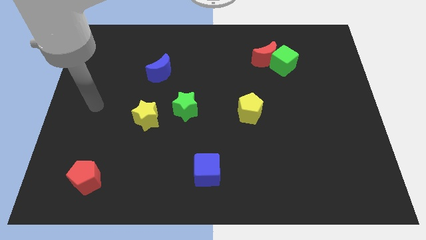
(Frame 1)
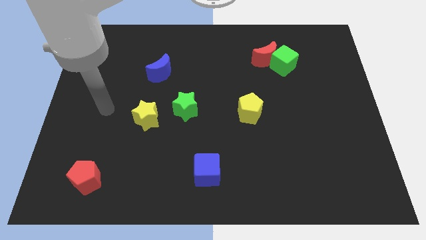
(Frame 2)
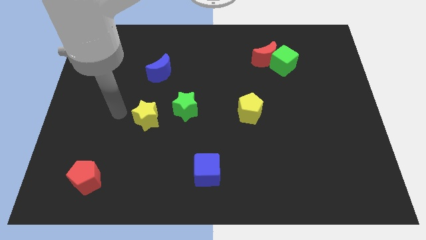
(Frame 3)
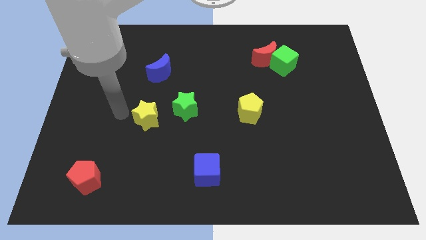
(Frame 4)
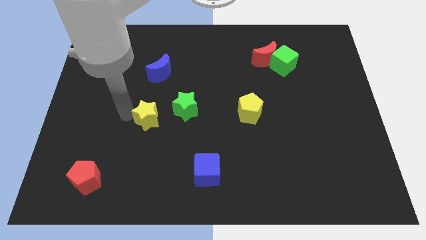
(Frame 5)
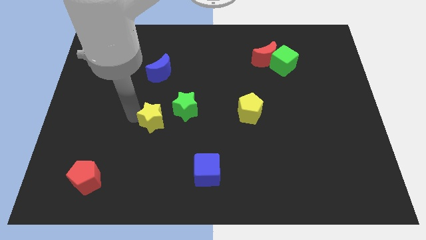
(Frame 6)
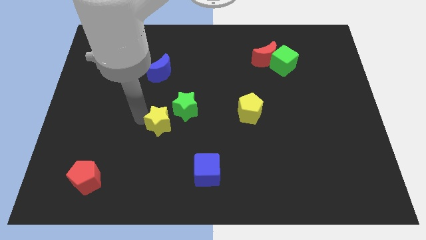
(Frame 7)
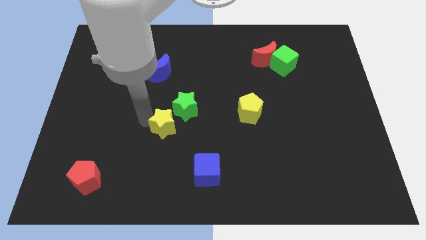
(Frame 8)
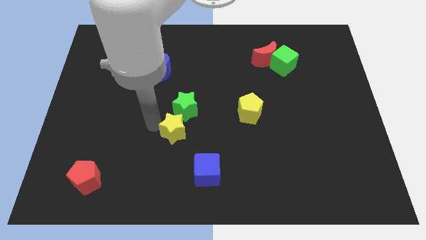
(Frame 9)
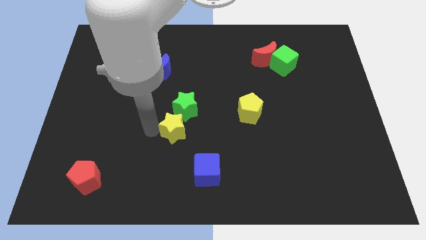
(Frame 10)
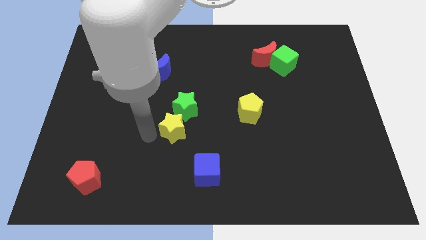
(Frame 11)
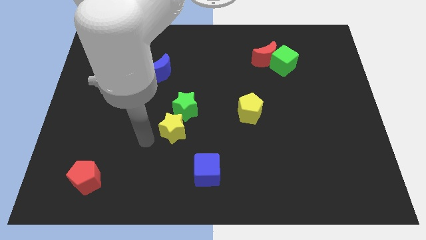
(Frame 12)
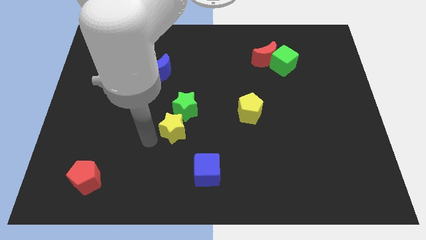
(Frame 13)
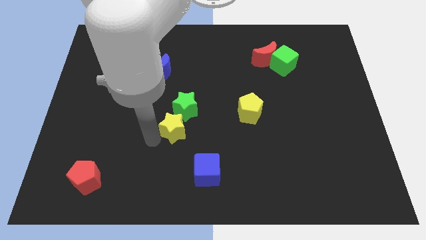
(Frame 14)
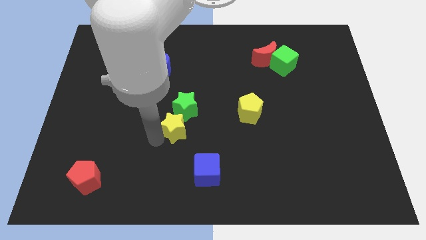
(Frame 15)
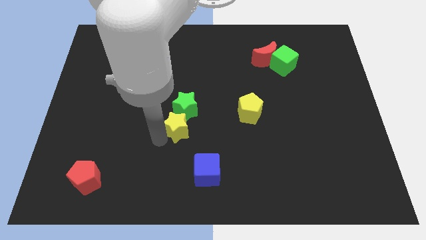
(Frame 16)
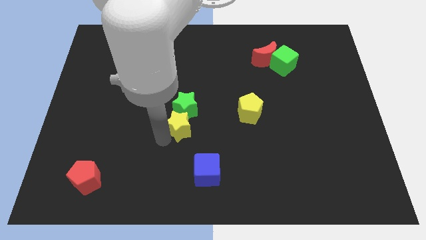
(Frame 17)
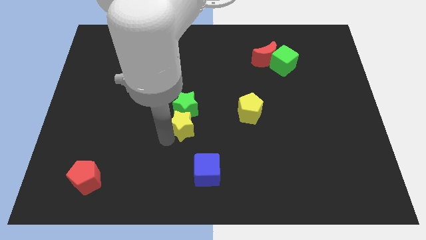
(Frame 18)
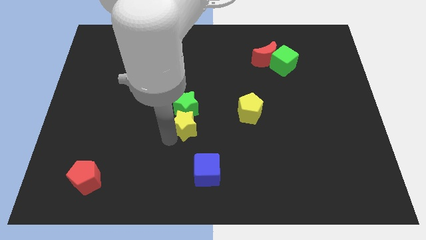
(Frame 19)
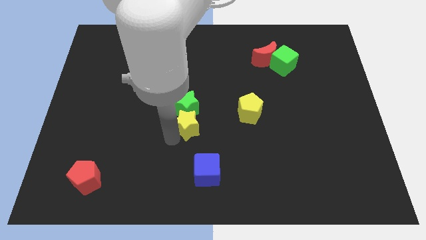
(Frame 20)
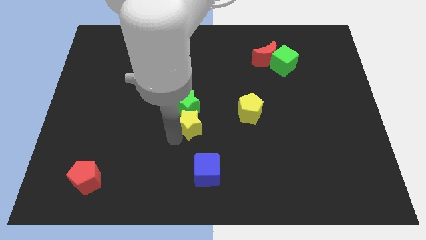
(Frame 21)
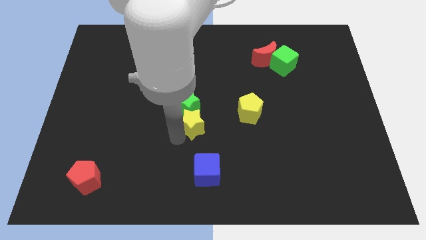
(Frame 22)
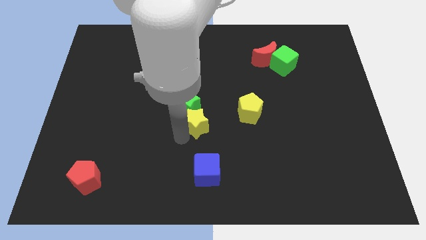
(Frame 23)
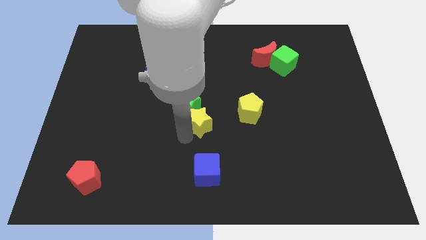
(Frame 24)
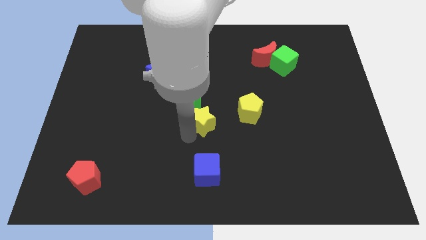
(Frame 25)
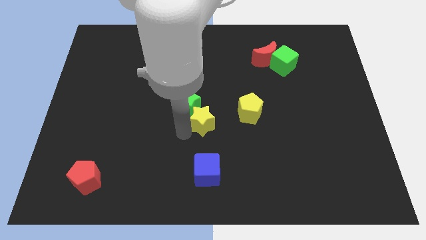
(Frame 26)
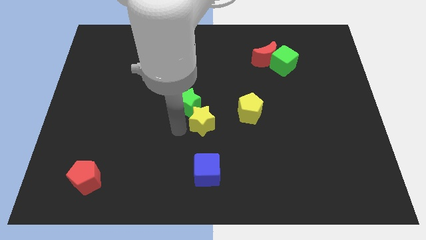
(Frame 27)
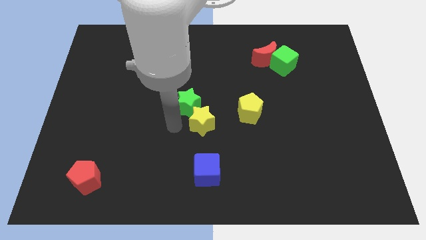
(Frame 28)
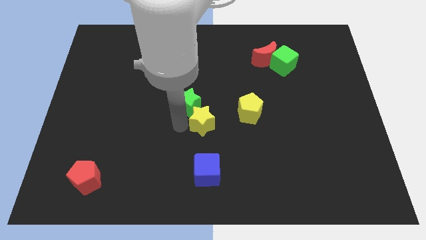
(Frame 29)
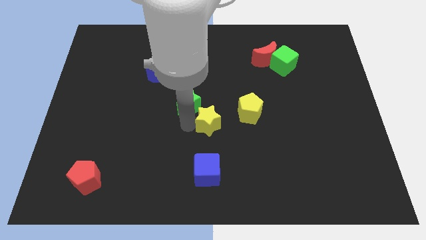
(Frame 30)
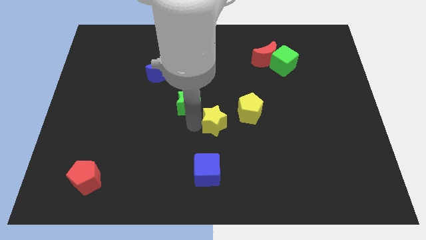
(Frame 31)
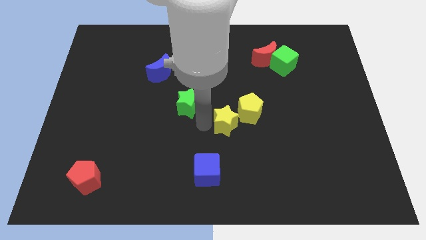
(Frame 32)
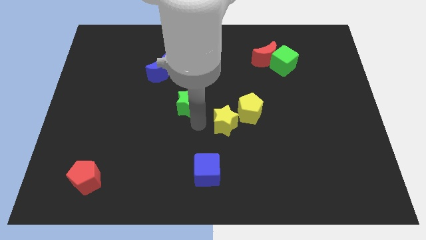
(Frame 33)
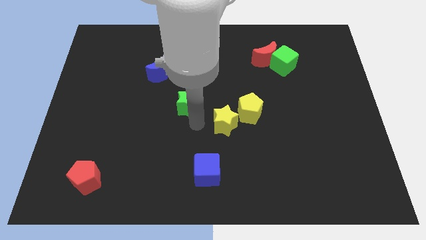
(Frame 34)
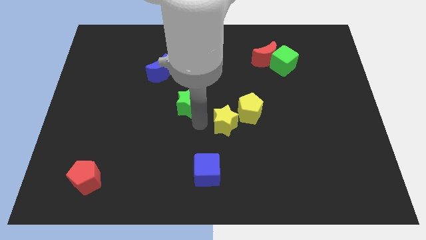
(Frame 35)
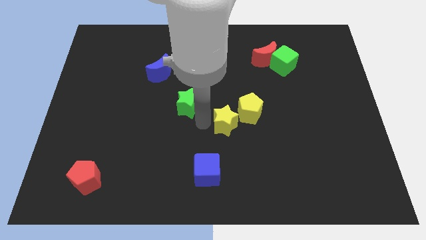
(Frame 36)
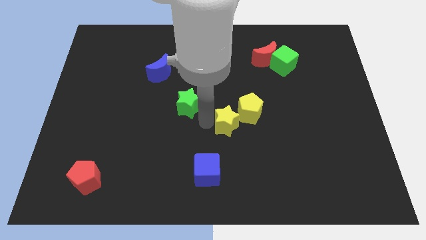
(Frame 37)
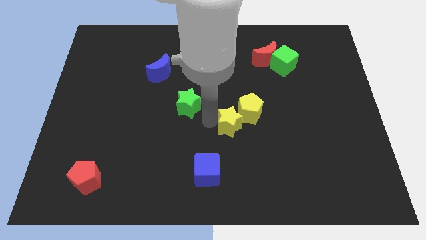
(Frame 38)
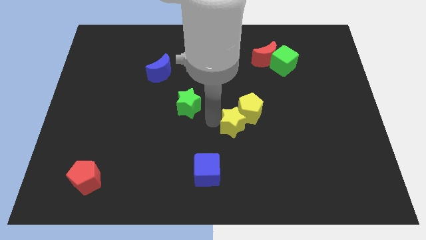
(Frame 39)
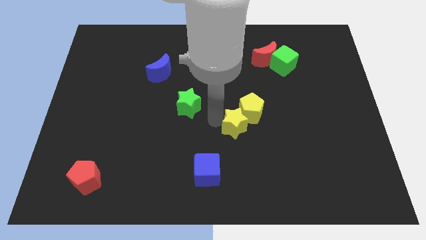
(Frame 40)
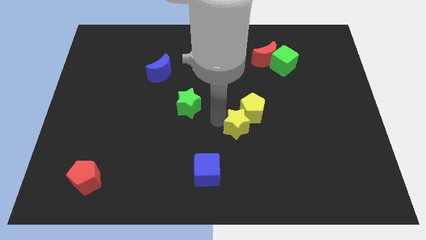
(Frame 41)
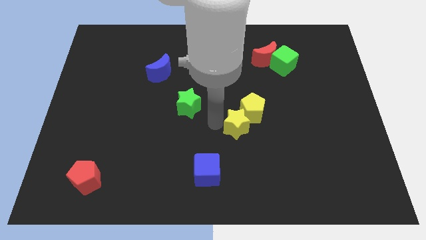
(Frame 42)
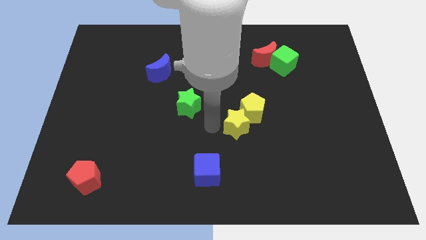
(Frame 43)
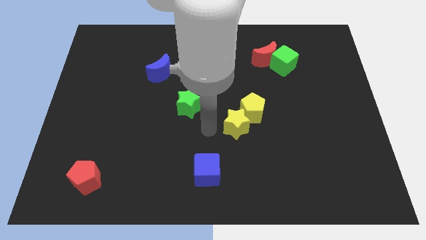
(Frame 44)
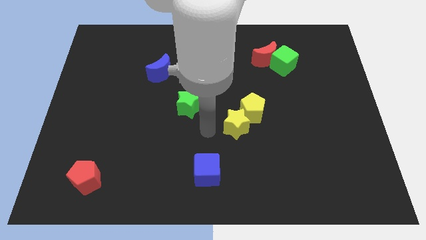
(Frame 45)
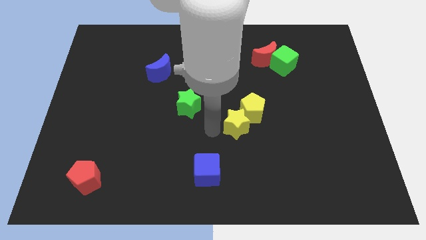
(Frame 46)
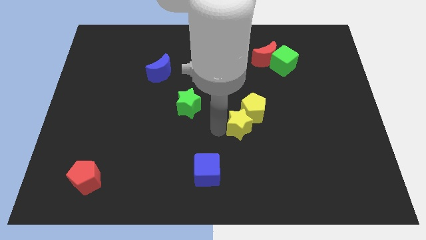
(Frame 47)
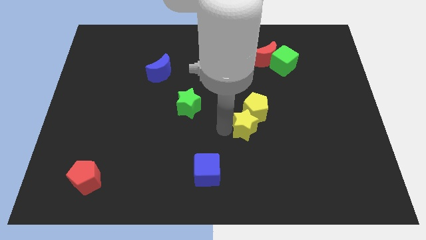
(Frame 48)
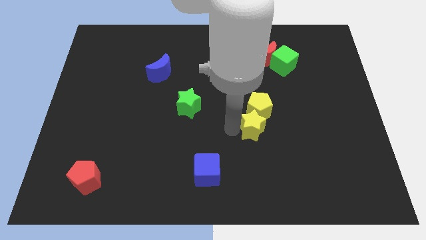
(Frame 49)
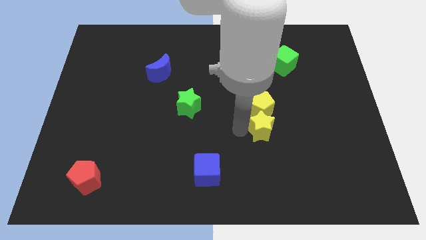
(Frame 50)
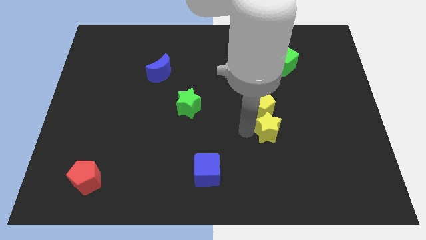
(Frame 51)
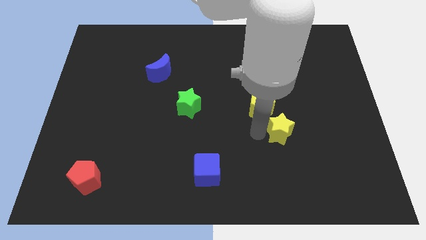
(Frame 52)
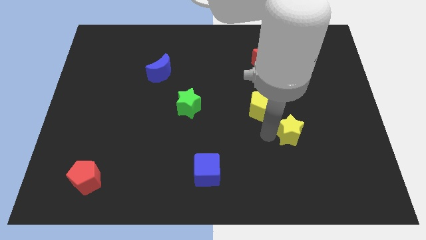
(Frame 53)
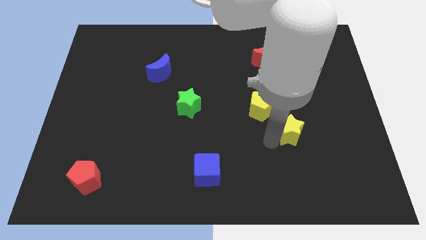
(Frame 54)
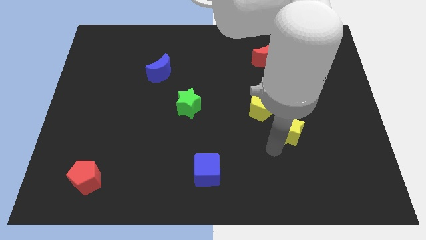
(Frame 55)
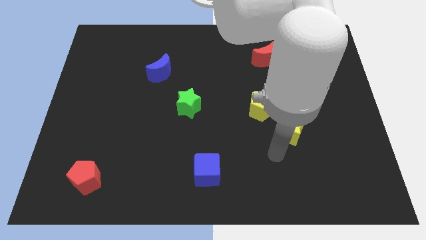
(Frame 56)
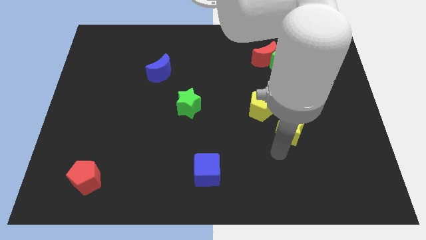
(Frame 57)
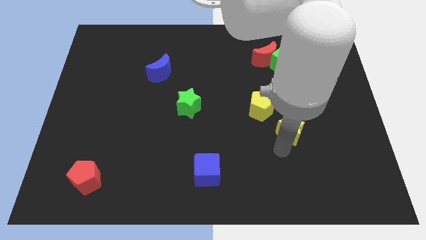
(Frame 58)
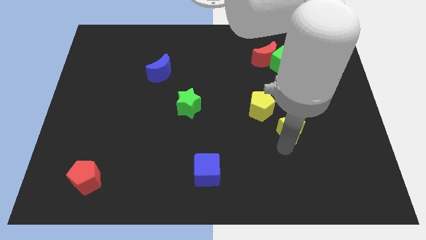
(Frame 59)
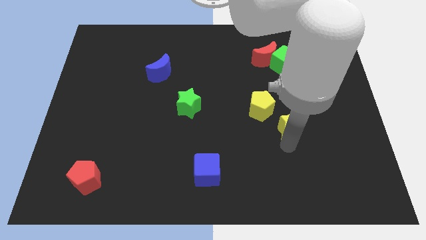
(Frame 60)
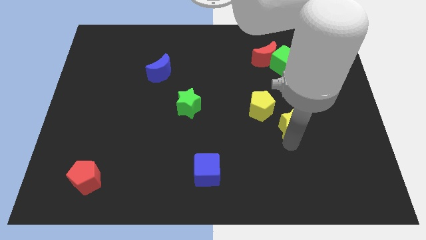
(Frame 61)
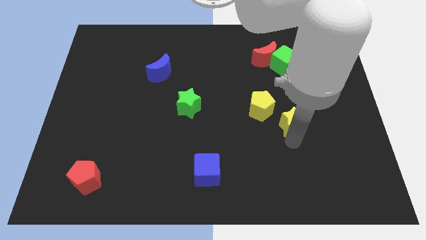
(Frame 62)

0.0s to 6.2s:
slide the yellow star to the right side of the yellow pentagon

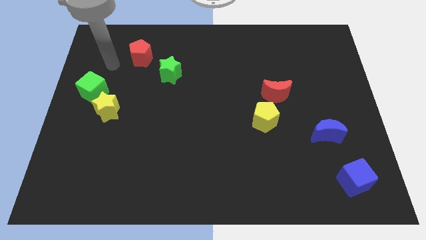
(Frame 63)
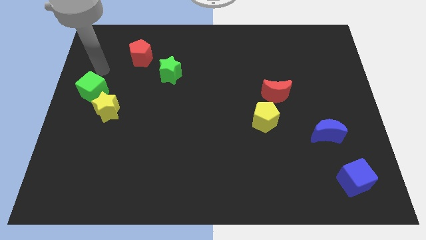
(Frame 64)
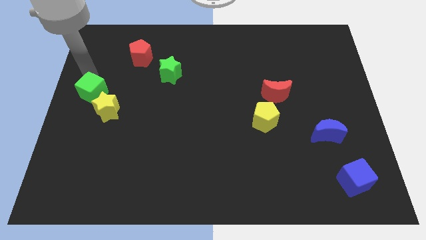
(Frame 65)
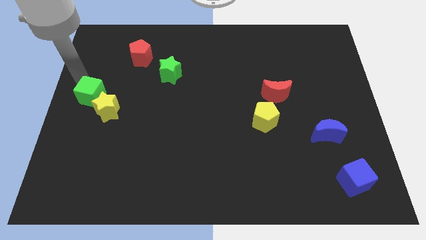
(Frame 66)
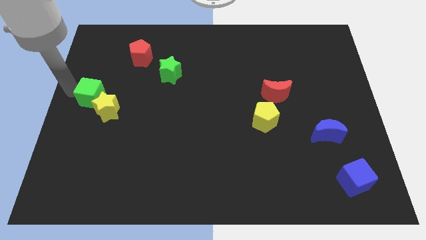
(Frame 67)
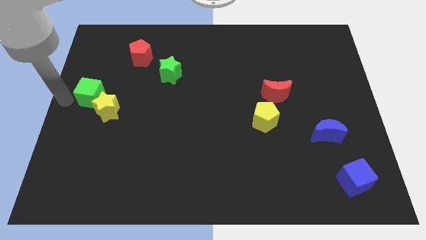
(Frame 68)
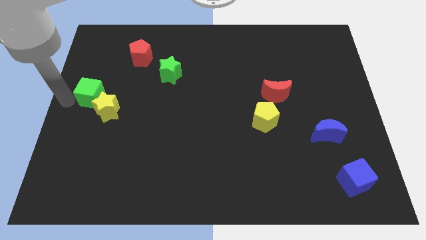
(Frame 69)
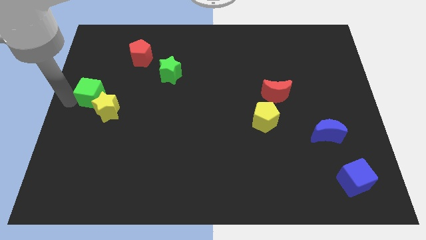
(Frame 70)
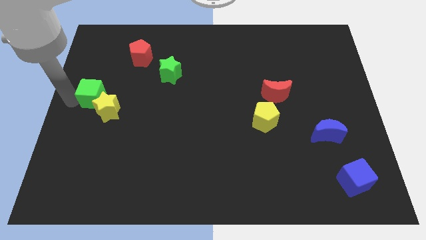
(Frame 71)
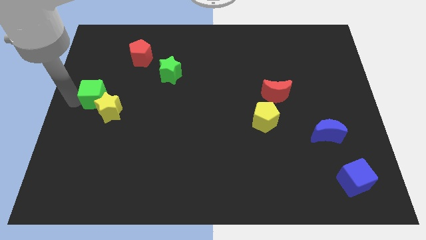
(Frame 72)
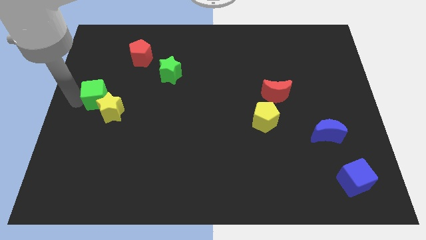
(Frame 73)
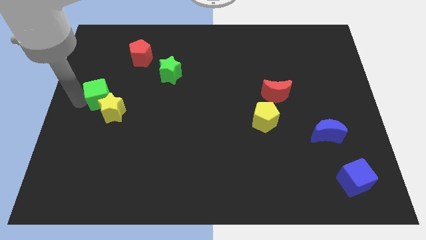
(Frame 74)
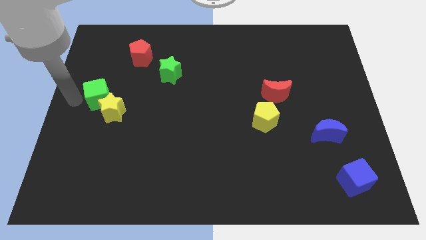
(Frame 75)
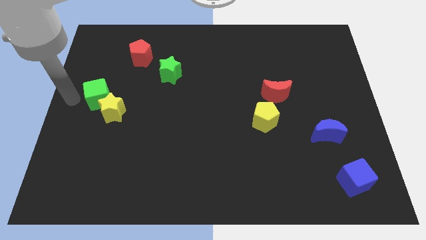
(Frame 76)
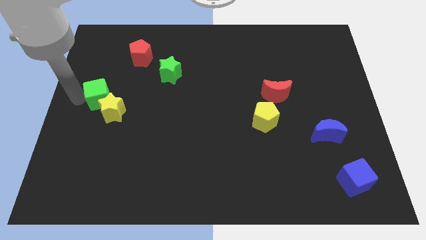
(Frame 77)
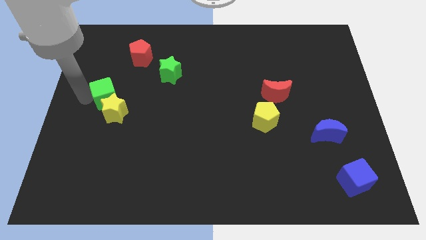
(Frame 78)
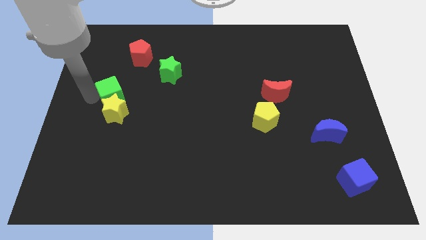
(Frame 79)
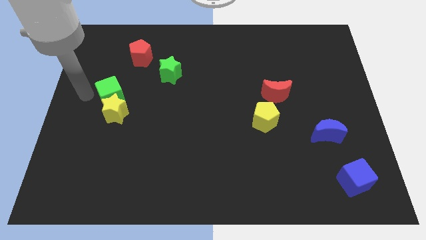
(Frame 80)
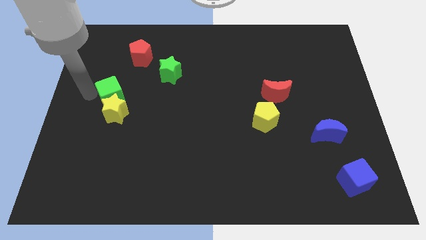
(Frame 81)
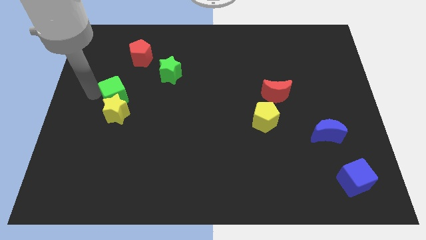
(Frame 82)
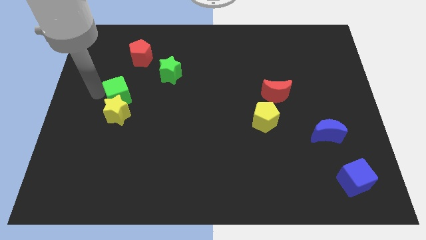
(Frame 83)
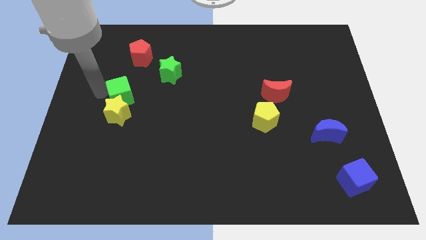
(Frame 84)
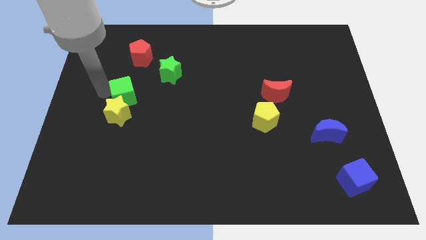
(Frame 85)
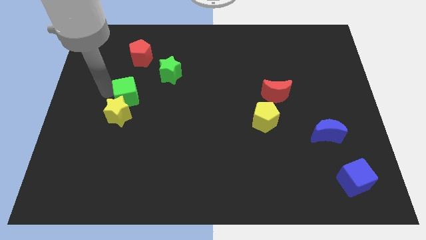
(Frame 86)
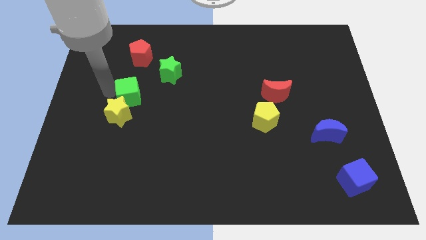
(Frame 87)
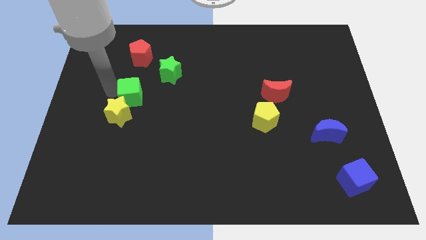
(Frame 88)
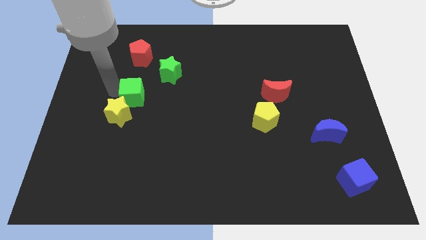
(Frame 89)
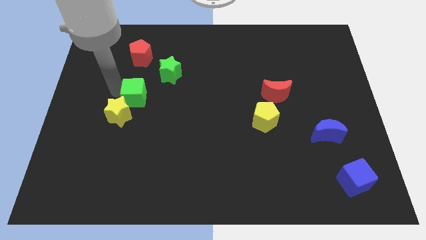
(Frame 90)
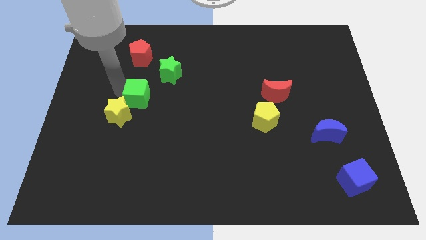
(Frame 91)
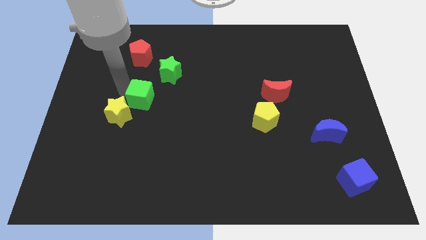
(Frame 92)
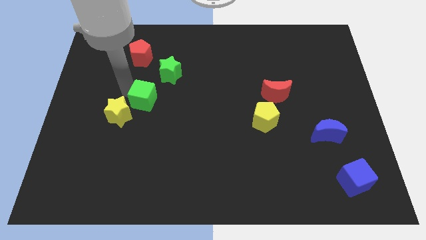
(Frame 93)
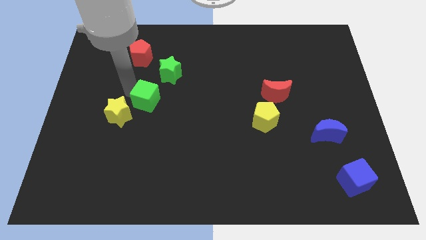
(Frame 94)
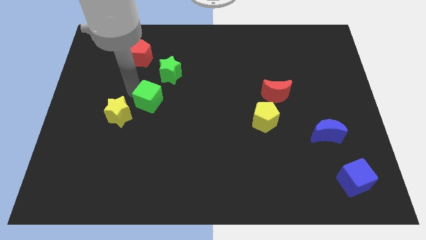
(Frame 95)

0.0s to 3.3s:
move the green cube to the bottom of the green star
